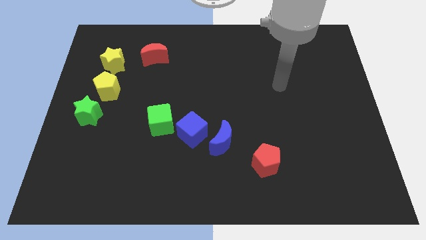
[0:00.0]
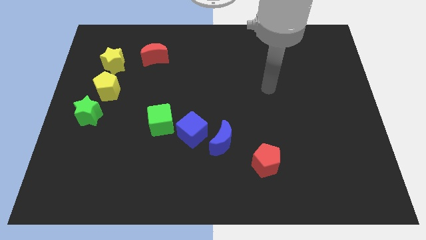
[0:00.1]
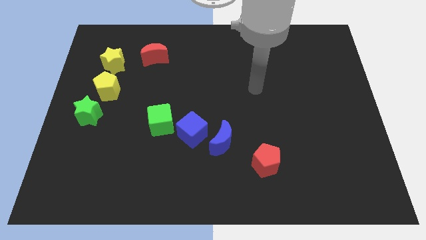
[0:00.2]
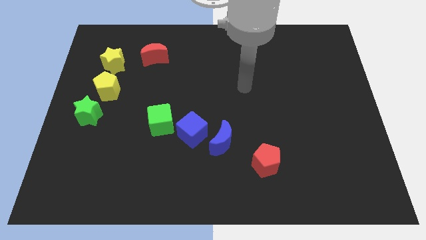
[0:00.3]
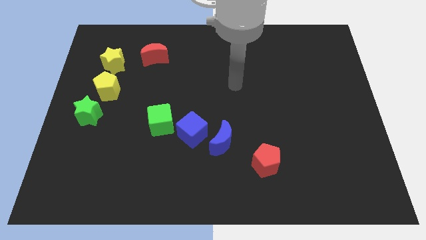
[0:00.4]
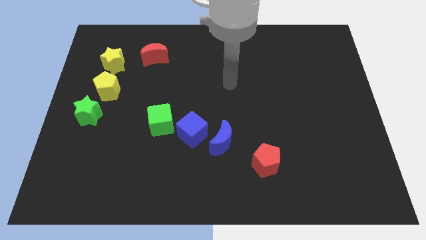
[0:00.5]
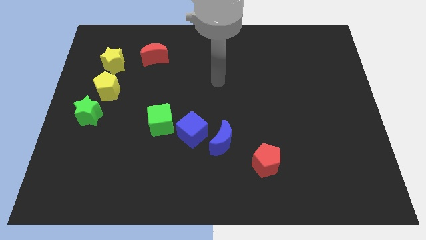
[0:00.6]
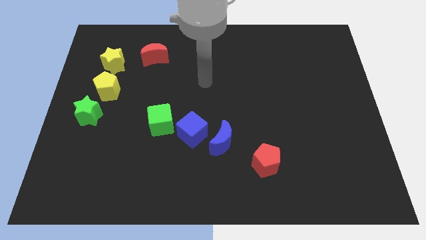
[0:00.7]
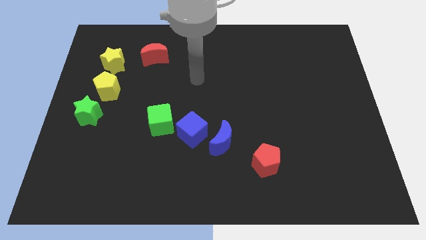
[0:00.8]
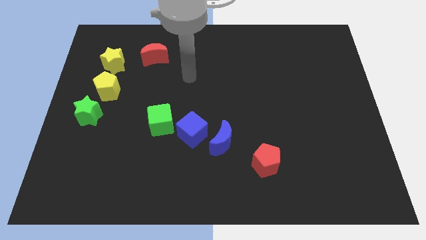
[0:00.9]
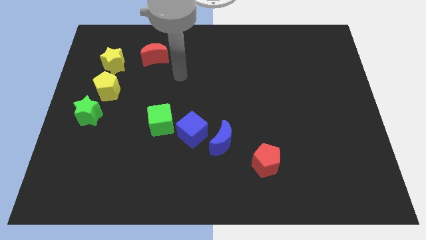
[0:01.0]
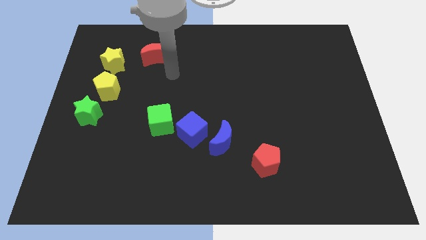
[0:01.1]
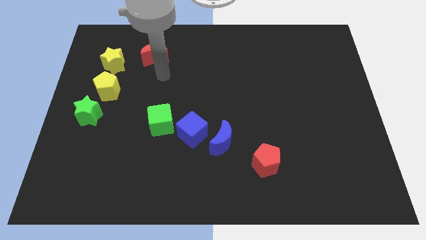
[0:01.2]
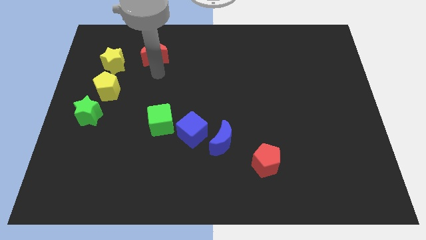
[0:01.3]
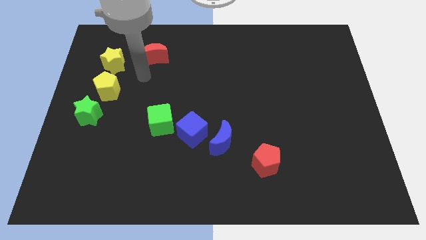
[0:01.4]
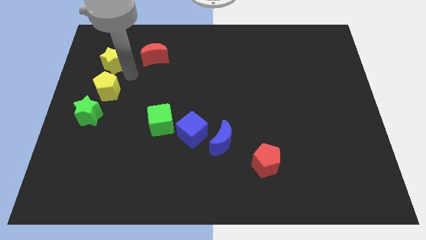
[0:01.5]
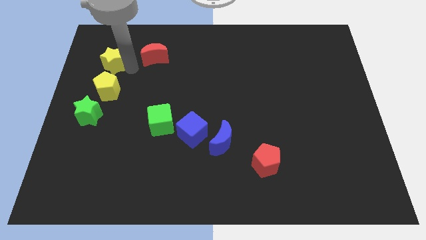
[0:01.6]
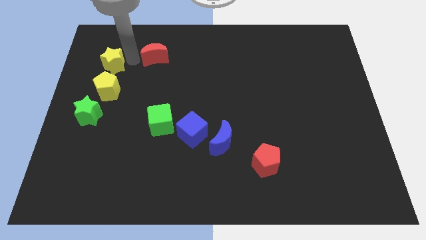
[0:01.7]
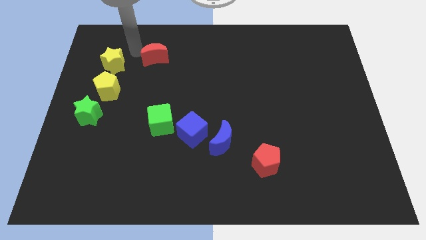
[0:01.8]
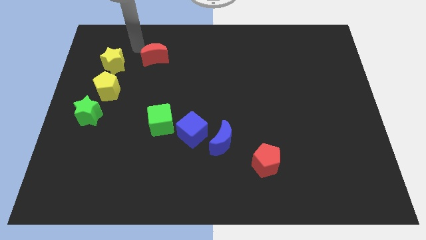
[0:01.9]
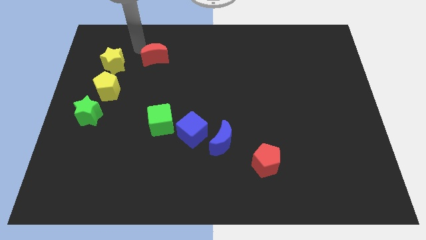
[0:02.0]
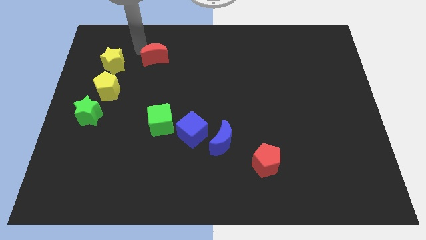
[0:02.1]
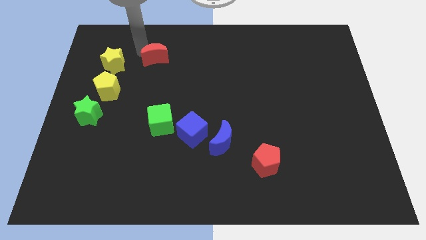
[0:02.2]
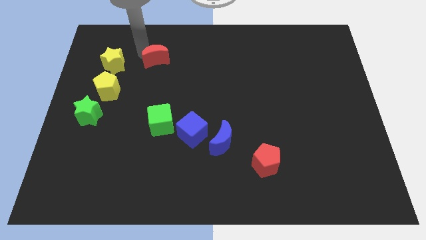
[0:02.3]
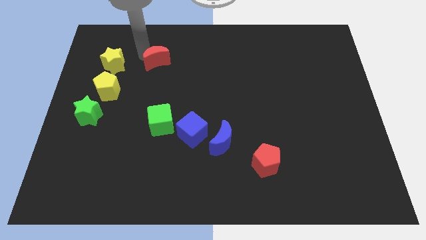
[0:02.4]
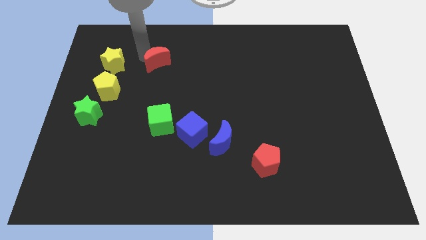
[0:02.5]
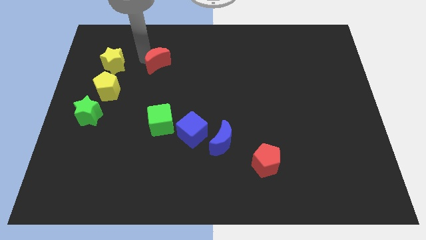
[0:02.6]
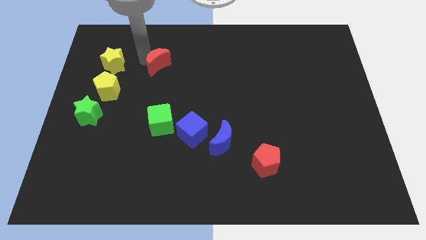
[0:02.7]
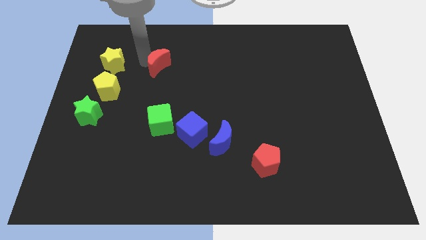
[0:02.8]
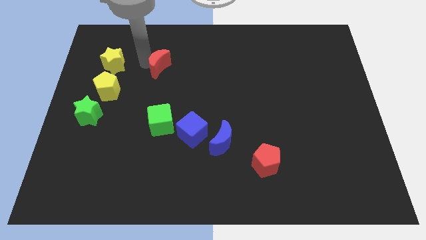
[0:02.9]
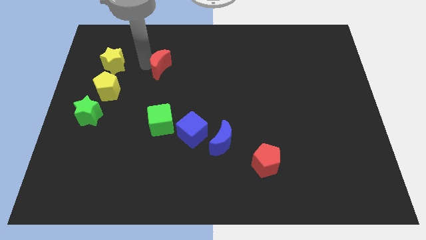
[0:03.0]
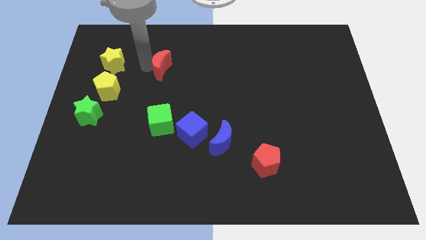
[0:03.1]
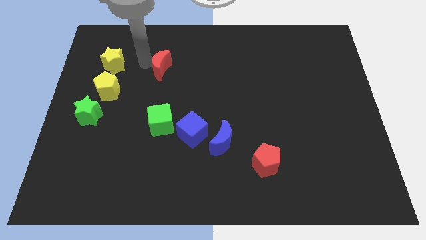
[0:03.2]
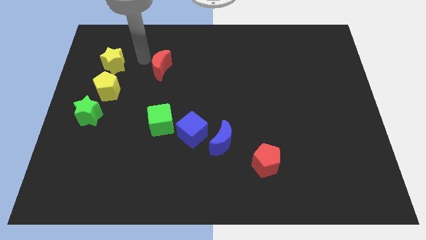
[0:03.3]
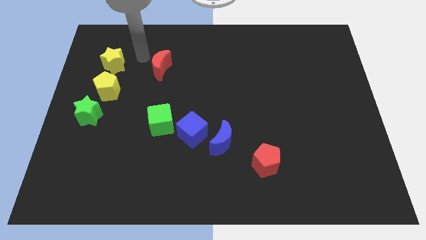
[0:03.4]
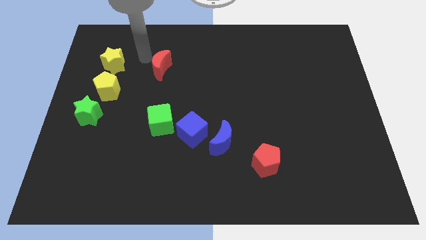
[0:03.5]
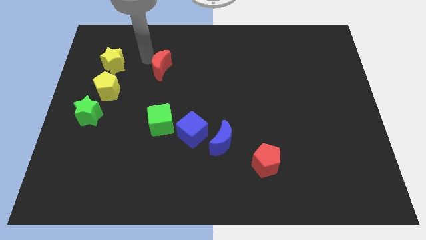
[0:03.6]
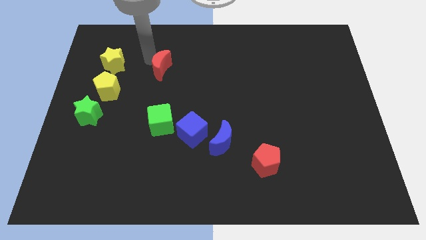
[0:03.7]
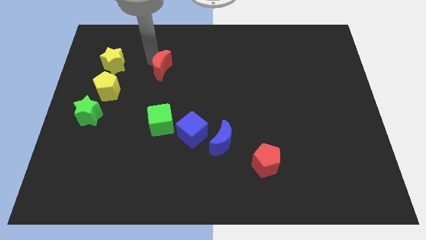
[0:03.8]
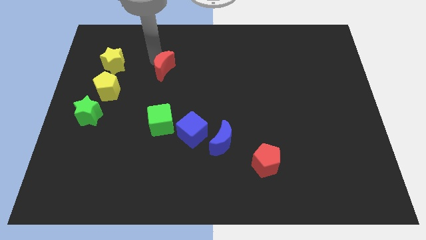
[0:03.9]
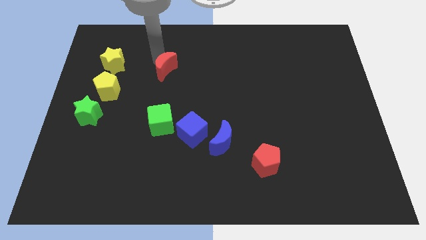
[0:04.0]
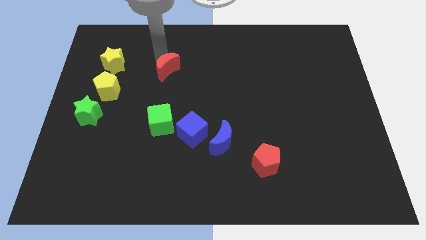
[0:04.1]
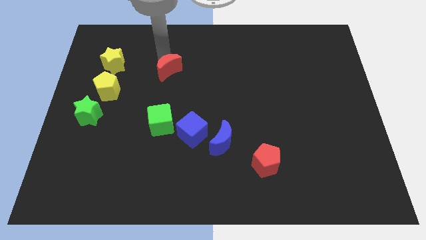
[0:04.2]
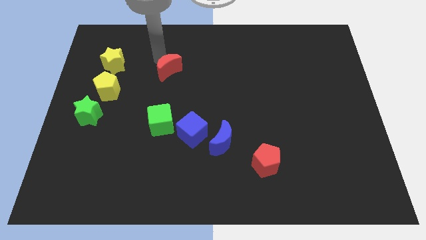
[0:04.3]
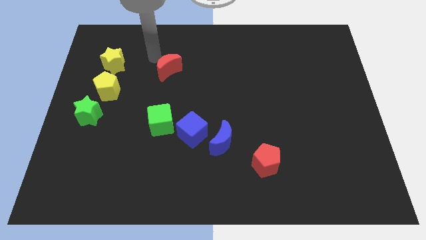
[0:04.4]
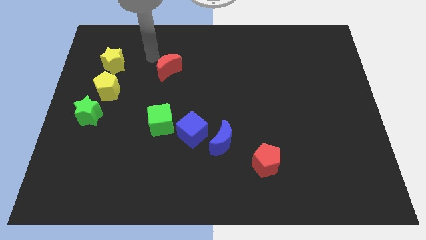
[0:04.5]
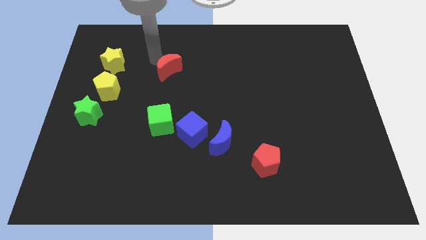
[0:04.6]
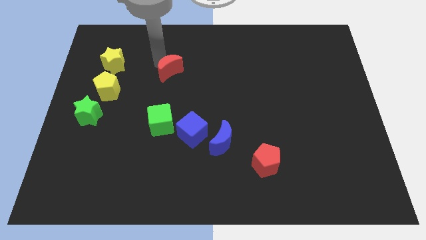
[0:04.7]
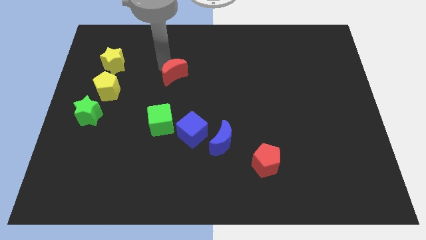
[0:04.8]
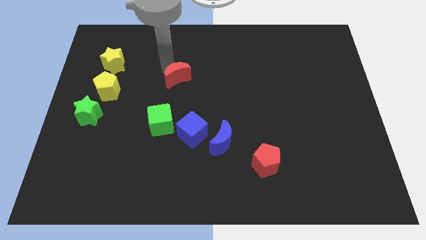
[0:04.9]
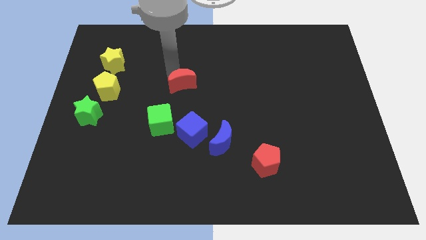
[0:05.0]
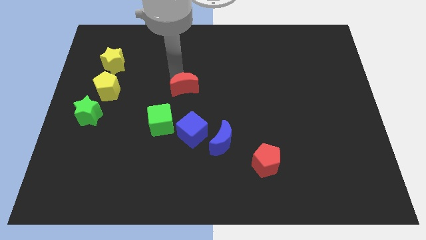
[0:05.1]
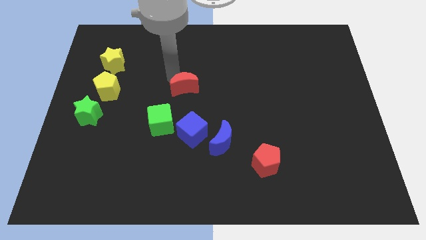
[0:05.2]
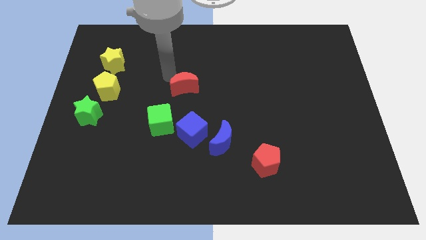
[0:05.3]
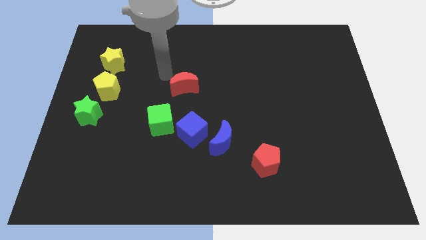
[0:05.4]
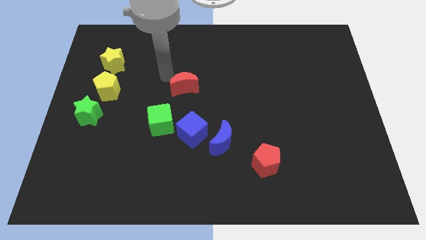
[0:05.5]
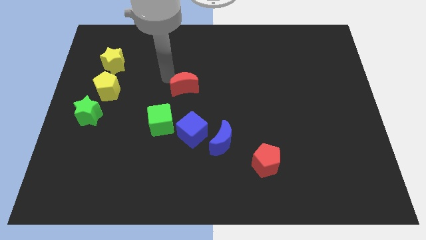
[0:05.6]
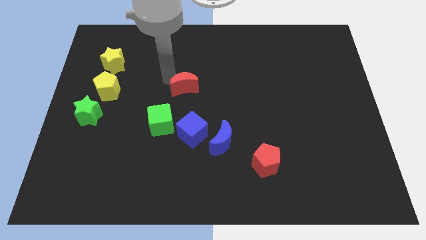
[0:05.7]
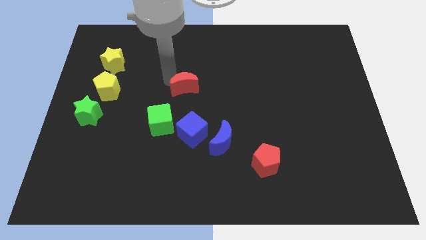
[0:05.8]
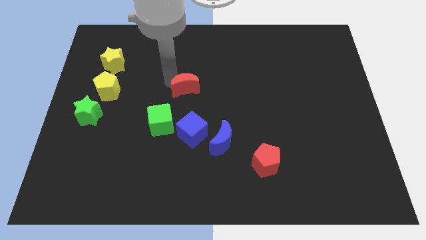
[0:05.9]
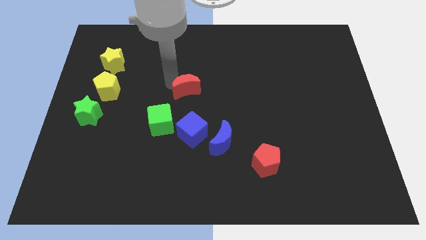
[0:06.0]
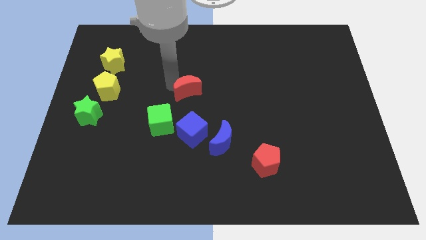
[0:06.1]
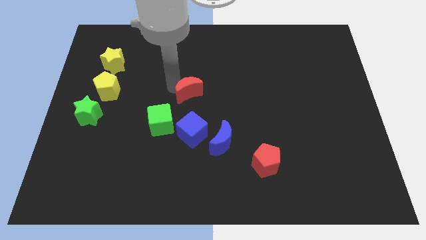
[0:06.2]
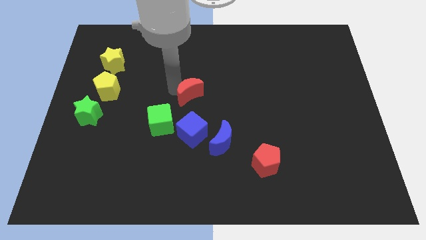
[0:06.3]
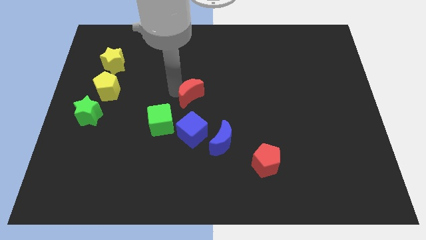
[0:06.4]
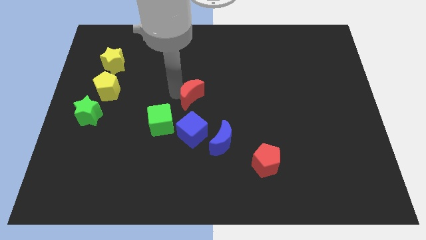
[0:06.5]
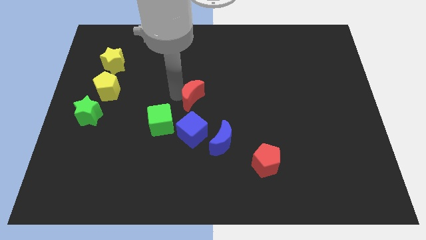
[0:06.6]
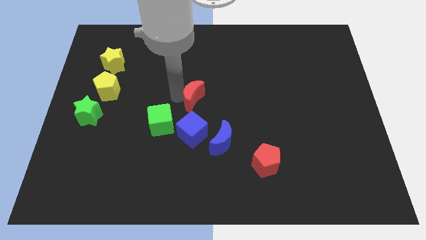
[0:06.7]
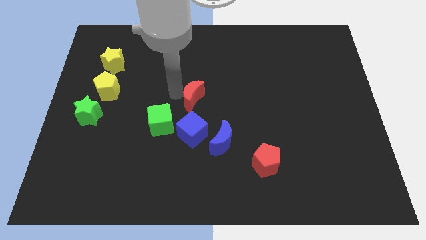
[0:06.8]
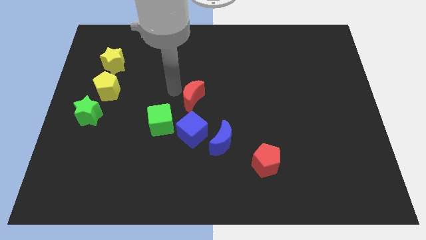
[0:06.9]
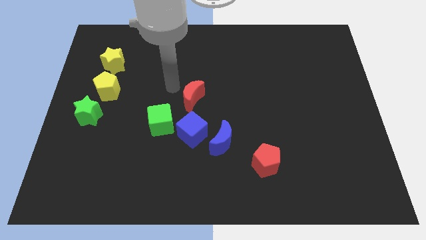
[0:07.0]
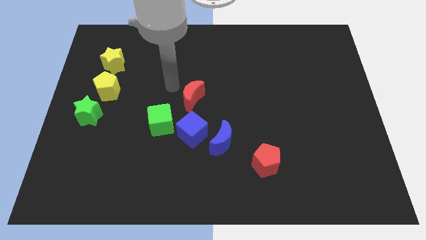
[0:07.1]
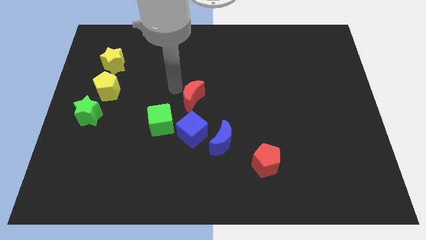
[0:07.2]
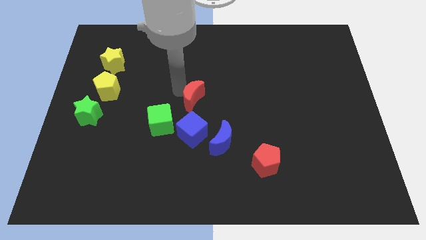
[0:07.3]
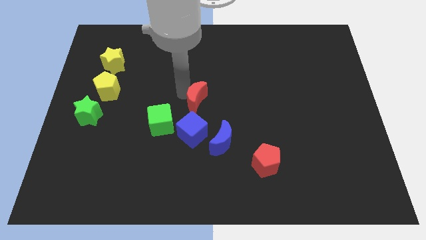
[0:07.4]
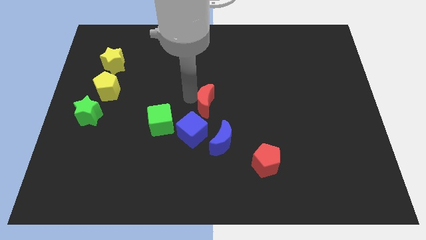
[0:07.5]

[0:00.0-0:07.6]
push the red moon diagonally down and right

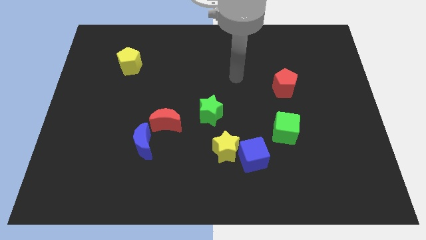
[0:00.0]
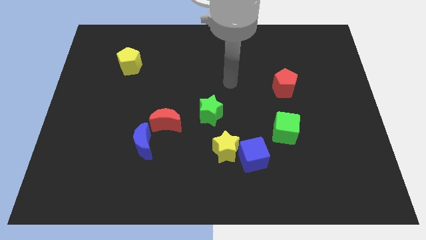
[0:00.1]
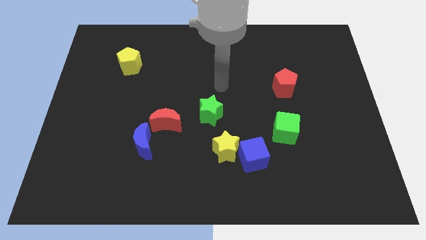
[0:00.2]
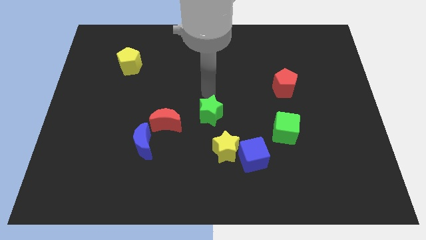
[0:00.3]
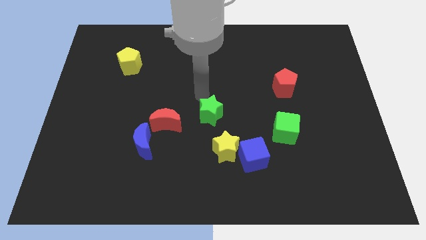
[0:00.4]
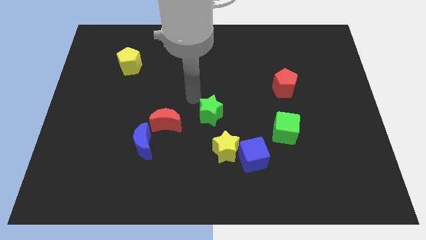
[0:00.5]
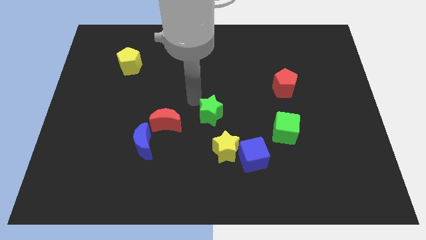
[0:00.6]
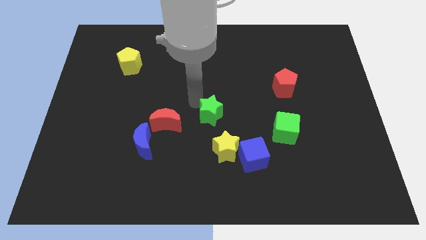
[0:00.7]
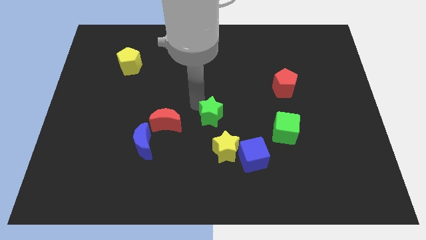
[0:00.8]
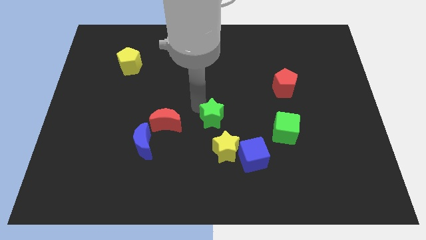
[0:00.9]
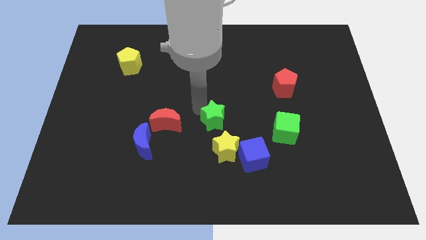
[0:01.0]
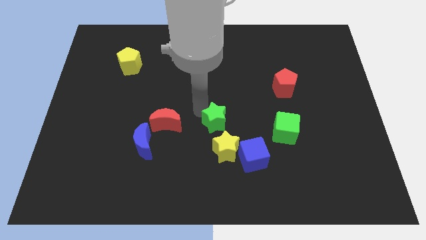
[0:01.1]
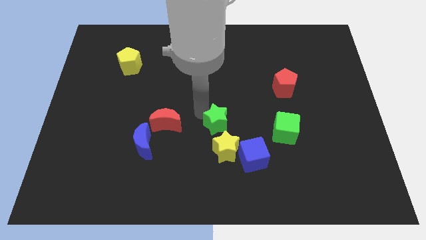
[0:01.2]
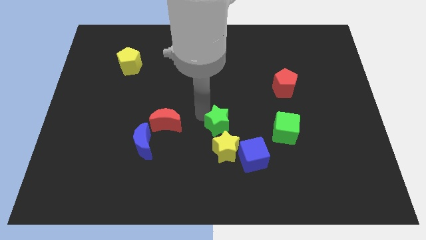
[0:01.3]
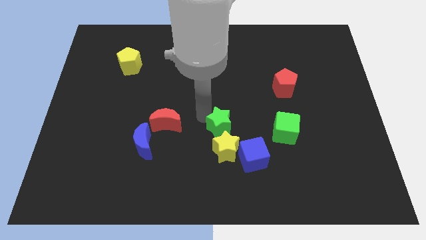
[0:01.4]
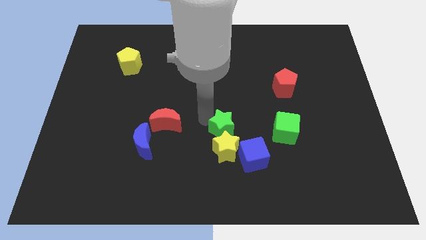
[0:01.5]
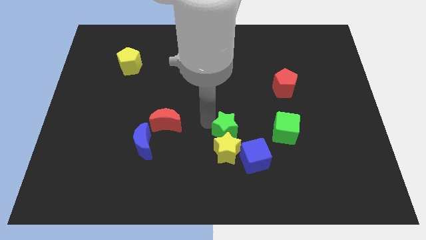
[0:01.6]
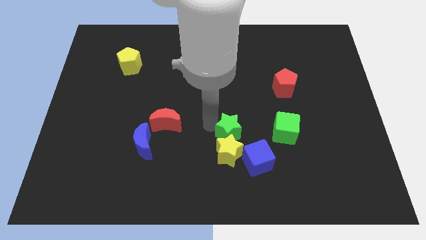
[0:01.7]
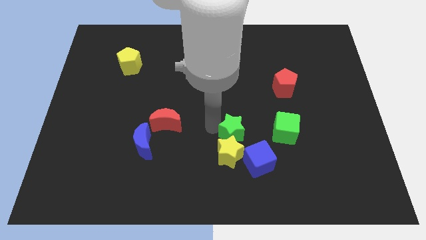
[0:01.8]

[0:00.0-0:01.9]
slightly slide the green star downwards and to the right diagonally
